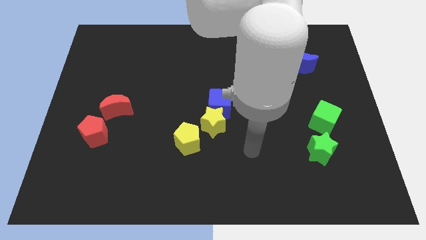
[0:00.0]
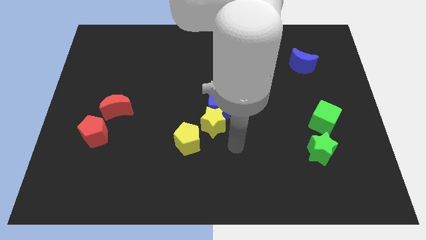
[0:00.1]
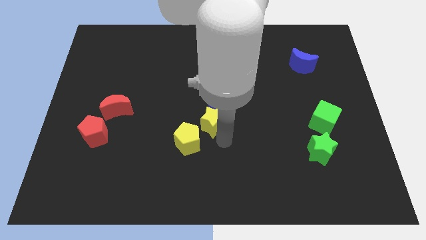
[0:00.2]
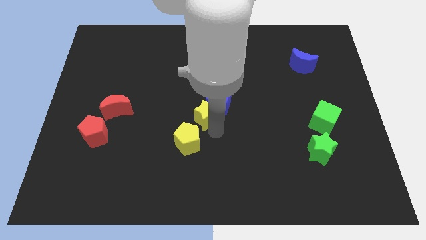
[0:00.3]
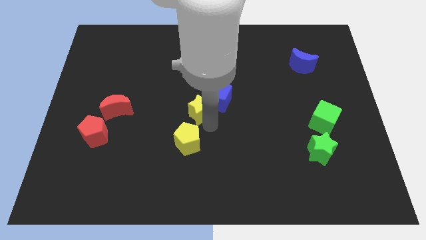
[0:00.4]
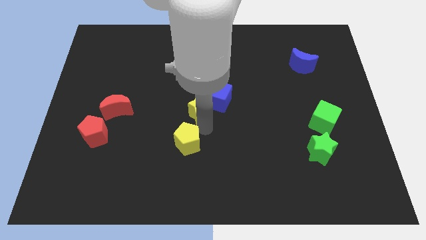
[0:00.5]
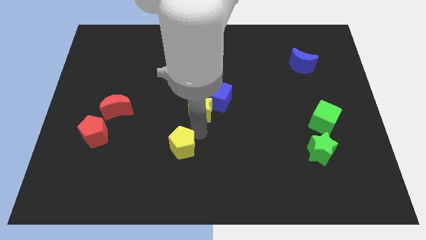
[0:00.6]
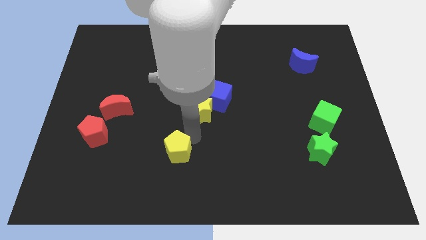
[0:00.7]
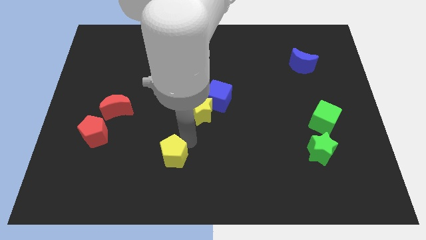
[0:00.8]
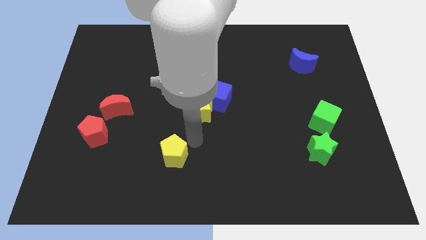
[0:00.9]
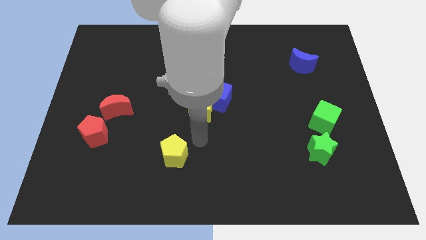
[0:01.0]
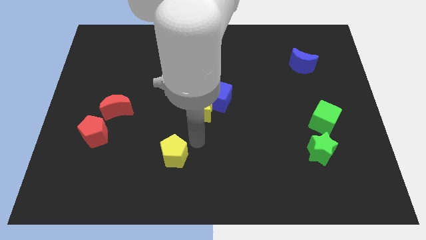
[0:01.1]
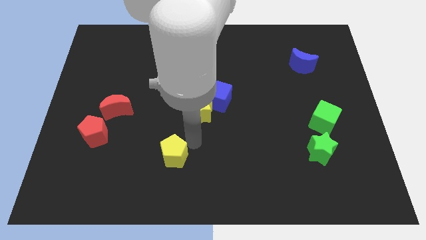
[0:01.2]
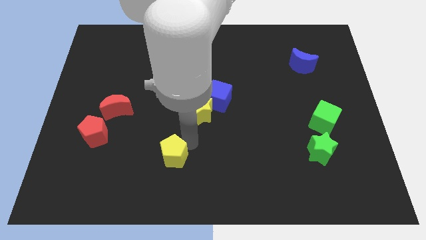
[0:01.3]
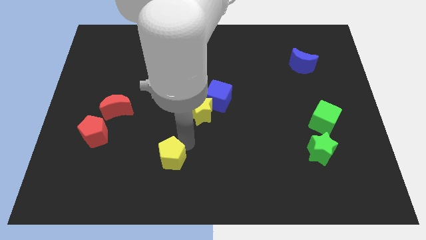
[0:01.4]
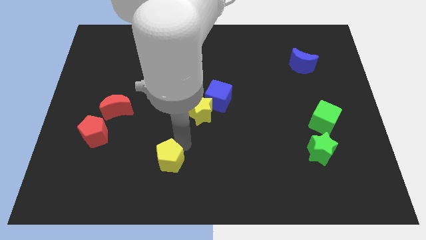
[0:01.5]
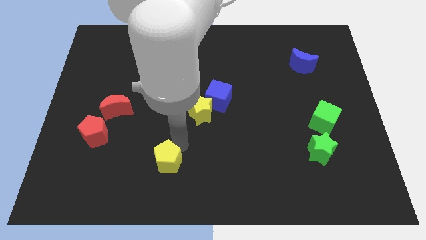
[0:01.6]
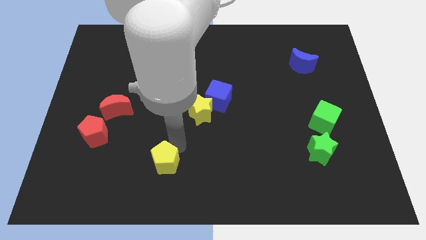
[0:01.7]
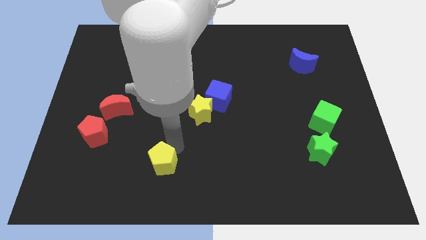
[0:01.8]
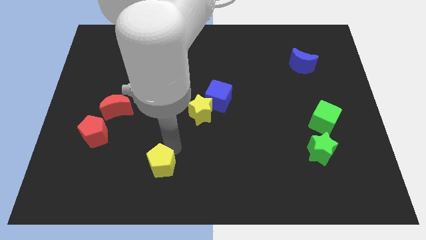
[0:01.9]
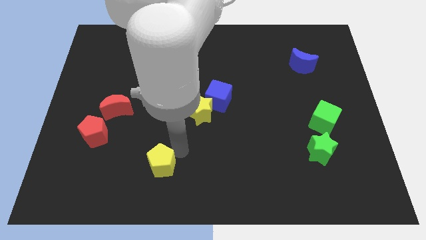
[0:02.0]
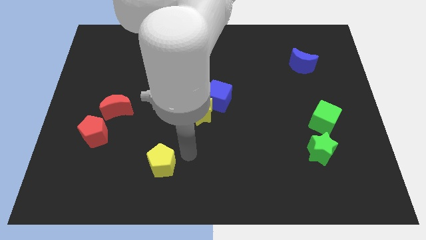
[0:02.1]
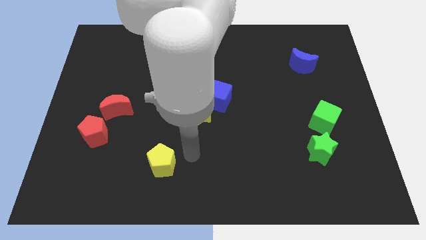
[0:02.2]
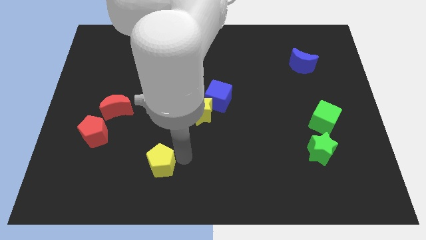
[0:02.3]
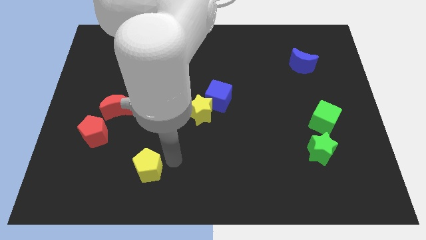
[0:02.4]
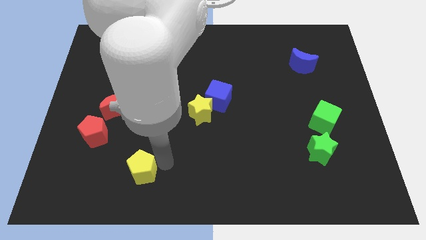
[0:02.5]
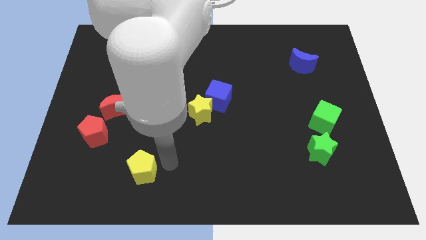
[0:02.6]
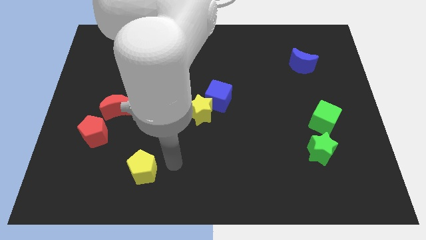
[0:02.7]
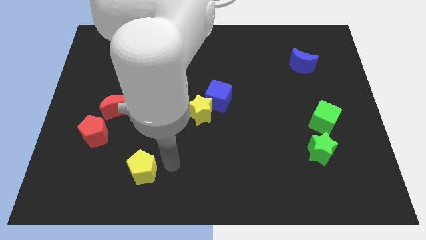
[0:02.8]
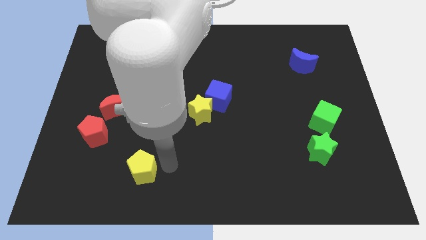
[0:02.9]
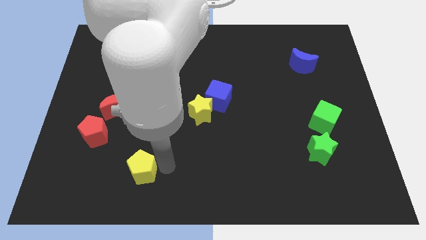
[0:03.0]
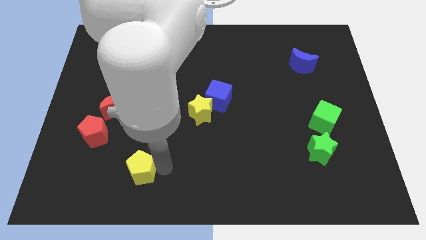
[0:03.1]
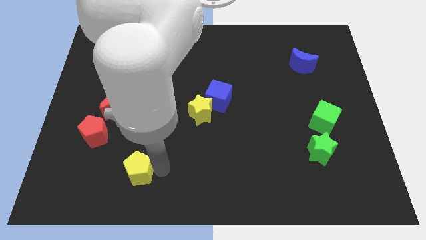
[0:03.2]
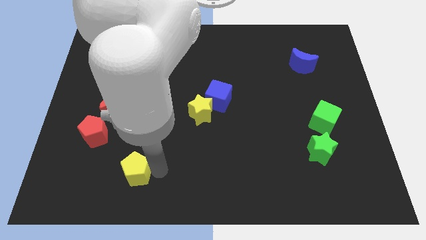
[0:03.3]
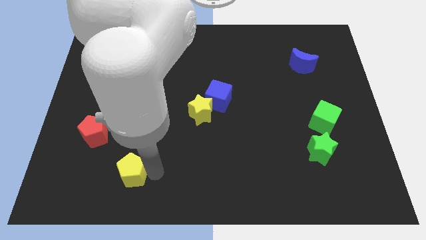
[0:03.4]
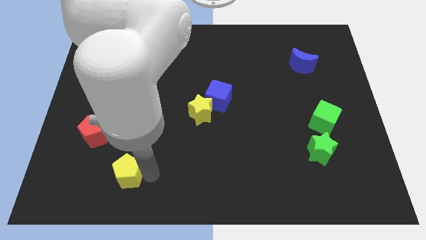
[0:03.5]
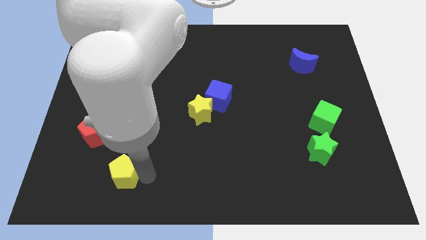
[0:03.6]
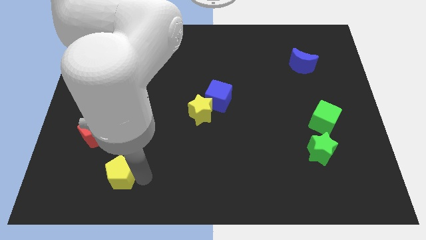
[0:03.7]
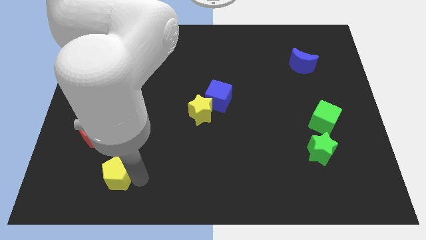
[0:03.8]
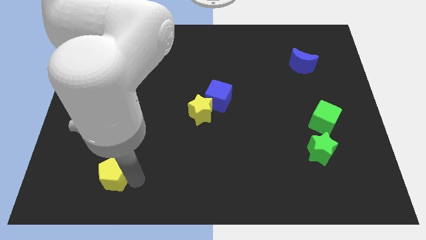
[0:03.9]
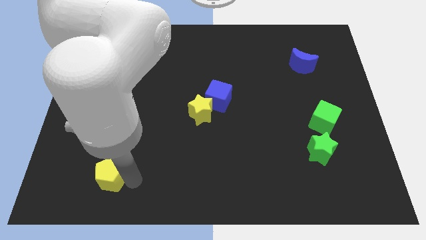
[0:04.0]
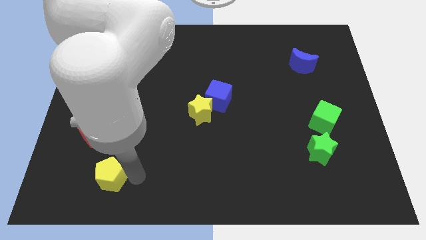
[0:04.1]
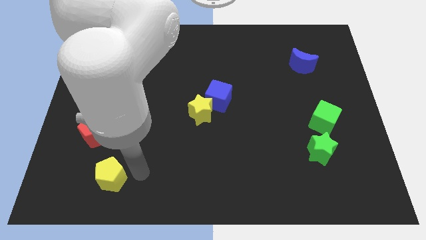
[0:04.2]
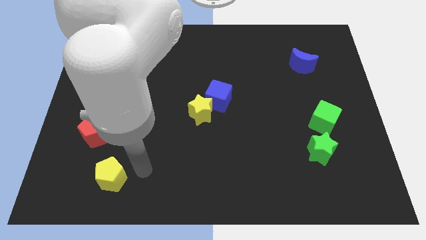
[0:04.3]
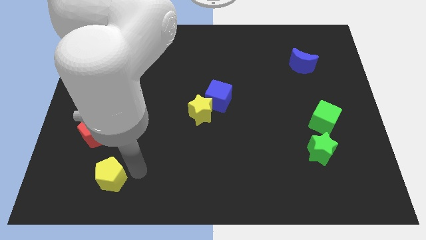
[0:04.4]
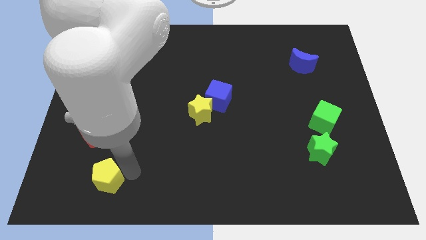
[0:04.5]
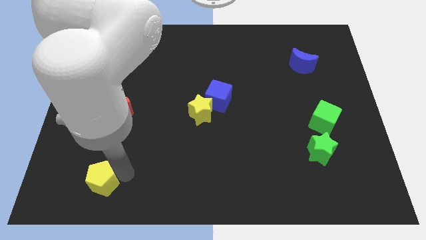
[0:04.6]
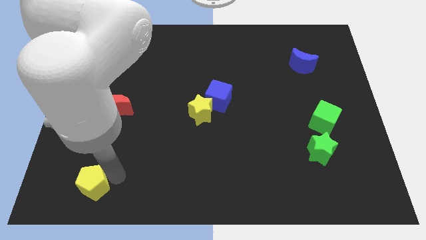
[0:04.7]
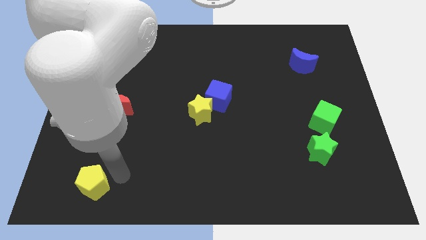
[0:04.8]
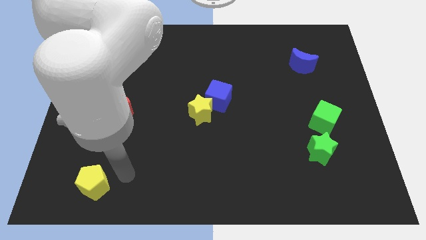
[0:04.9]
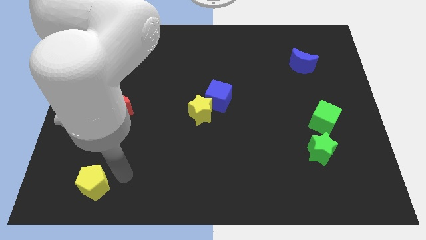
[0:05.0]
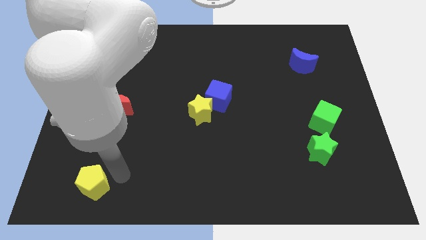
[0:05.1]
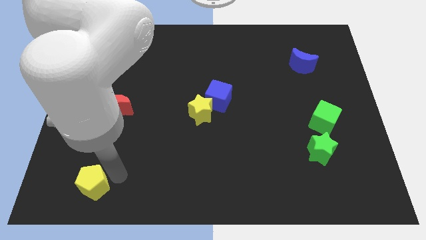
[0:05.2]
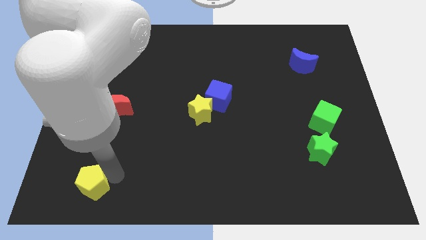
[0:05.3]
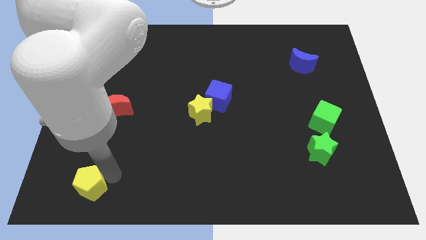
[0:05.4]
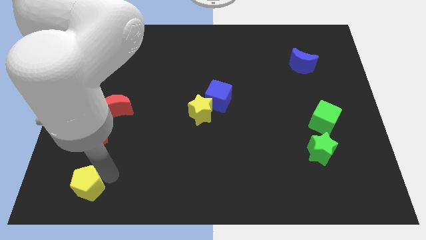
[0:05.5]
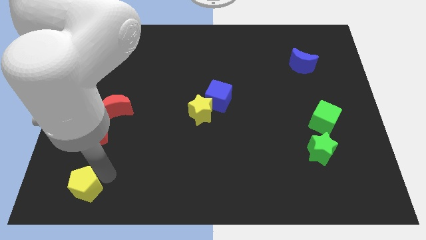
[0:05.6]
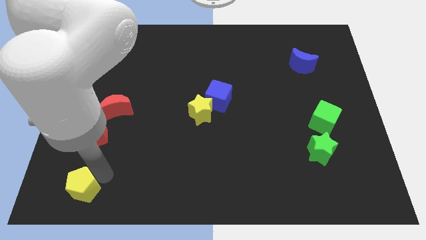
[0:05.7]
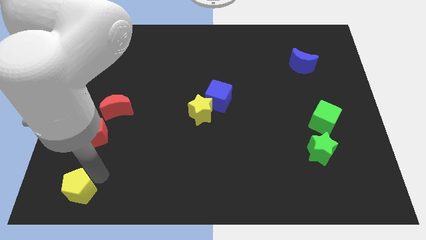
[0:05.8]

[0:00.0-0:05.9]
move the yellow pentagon to the bottom left
